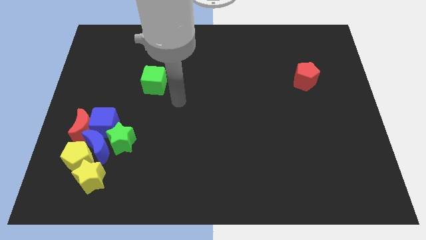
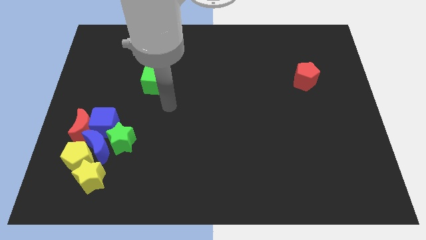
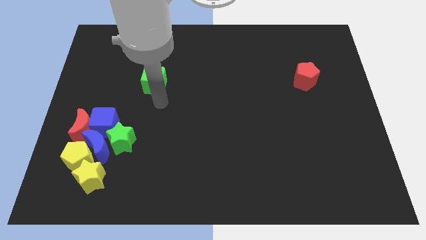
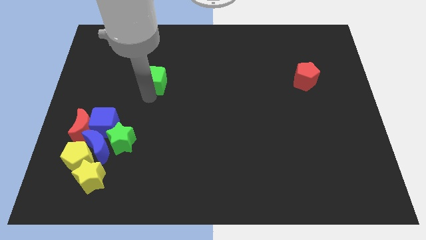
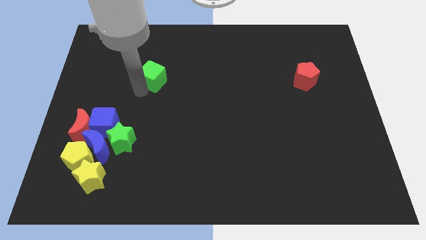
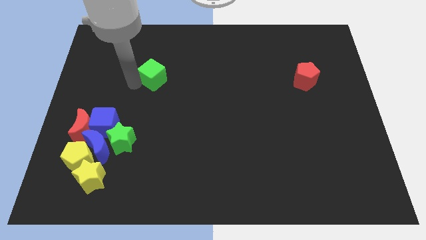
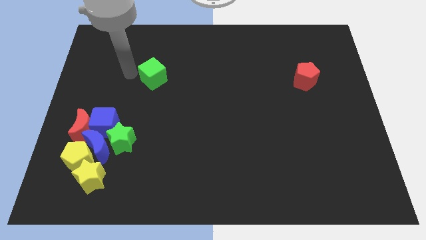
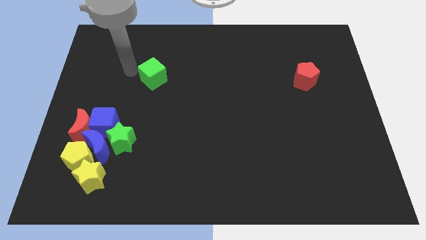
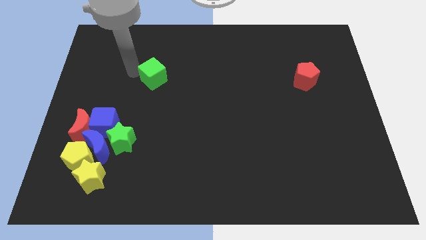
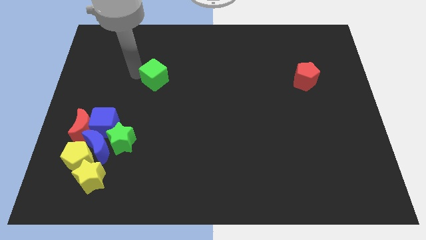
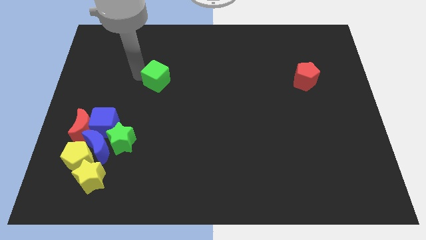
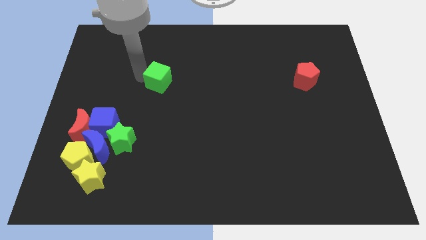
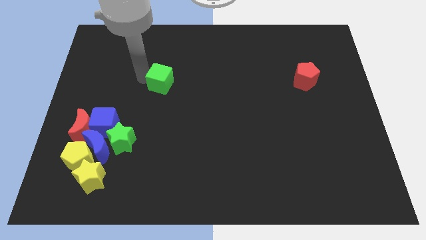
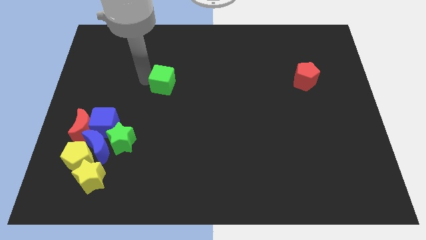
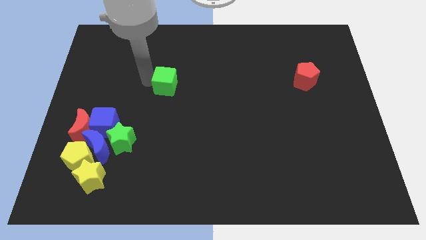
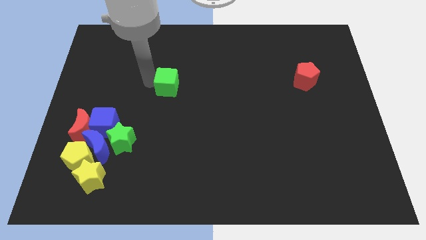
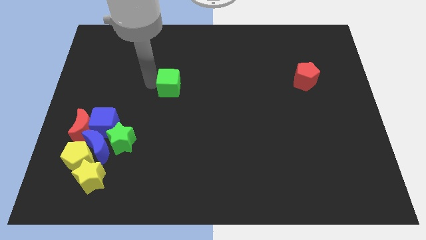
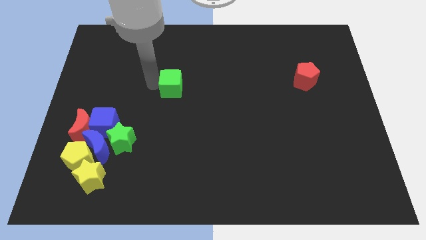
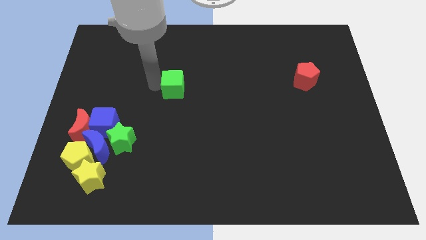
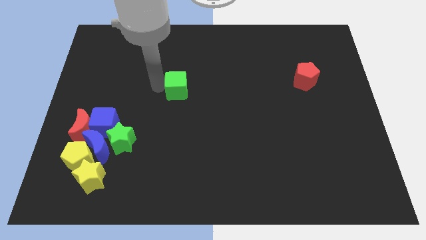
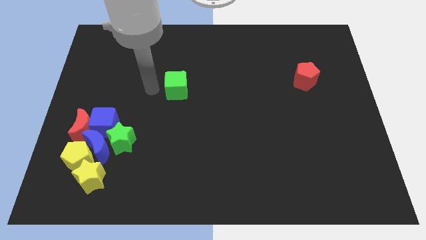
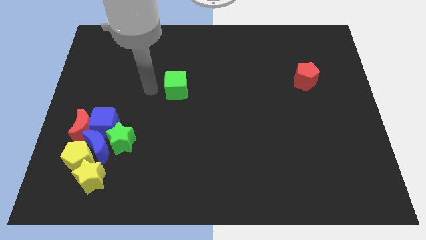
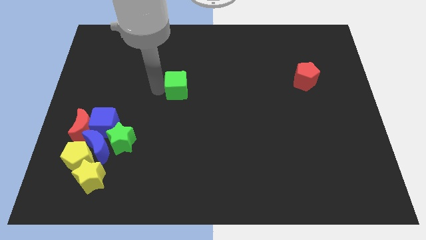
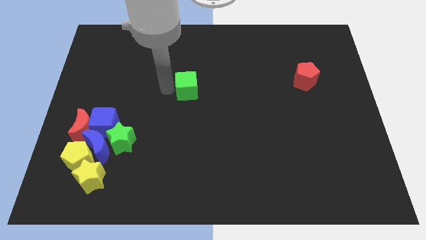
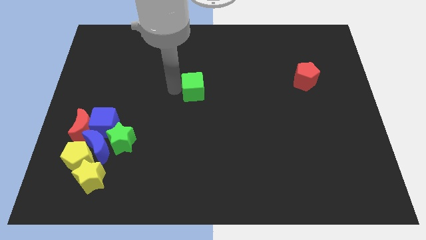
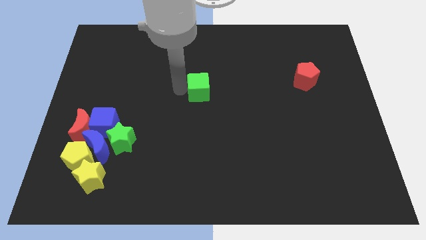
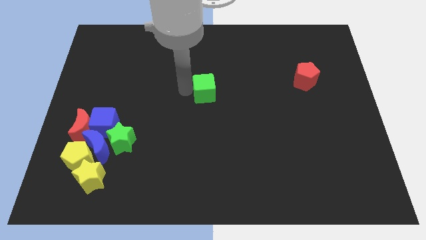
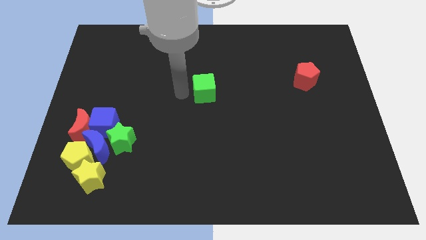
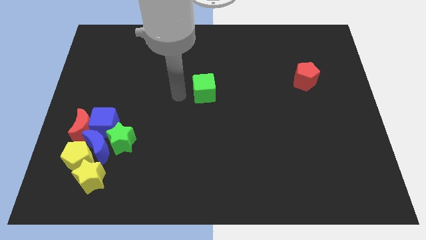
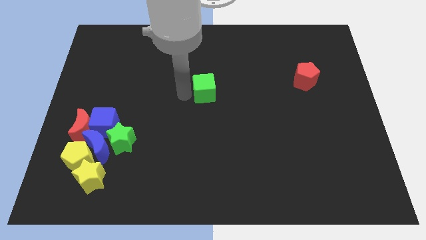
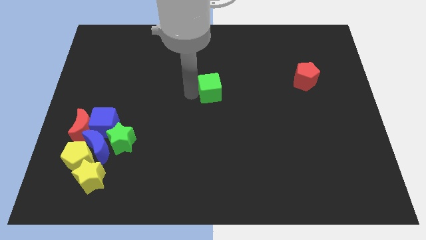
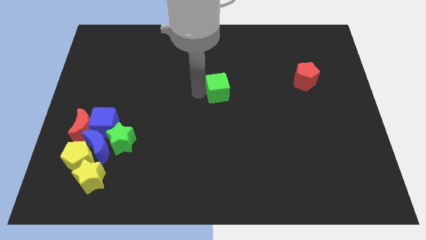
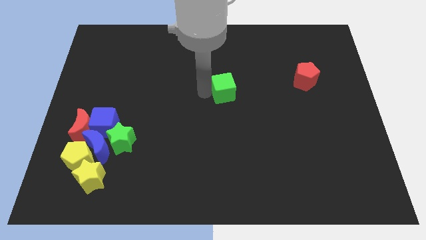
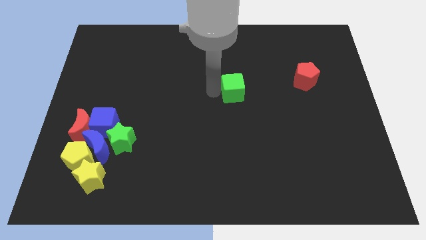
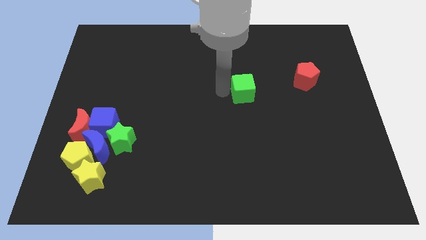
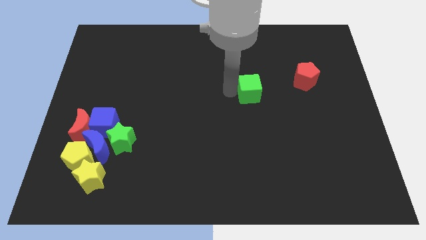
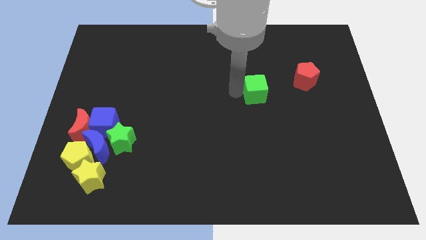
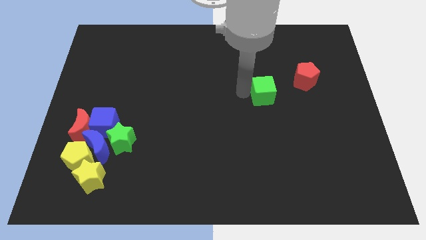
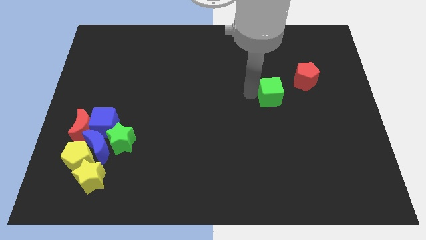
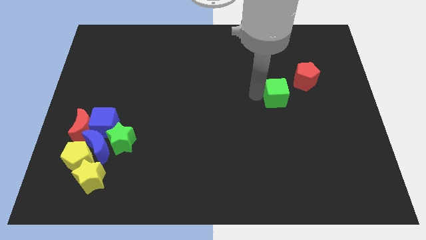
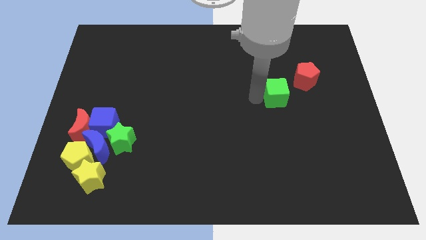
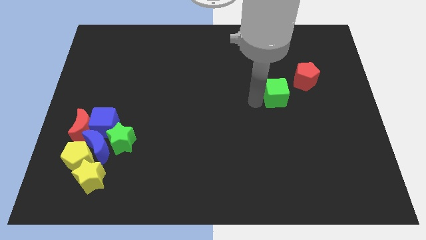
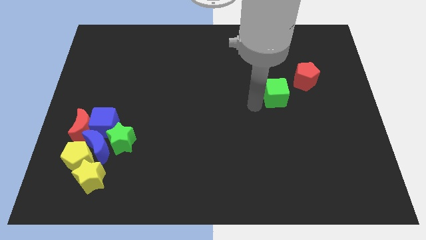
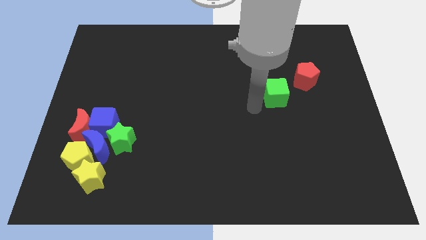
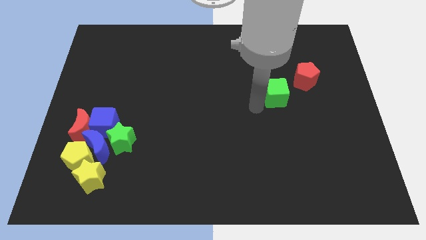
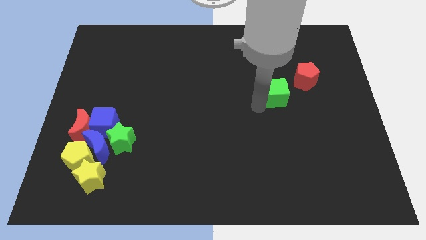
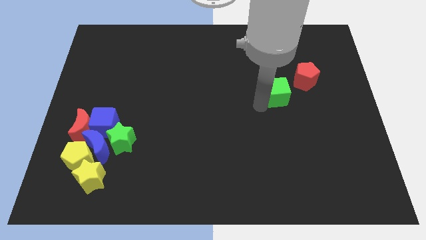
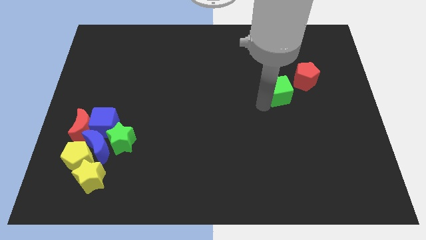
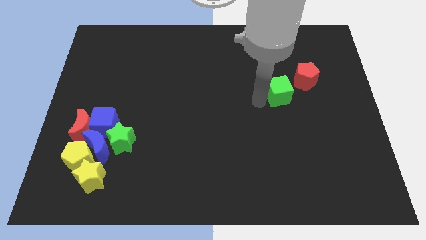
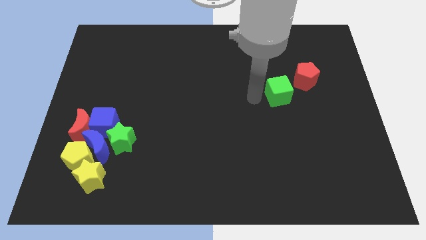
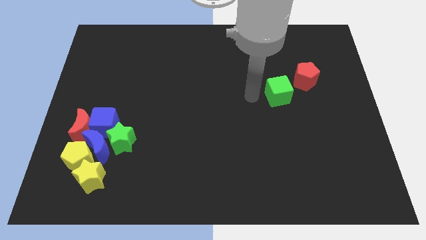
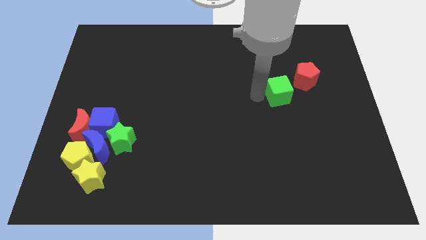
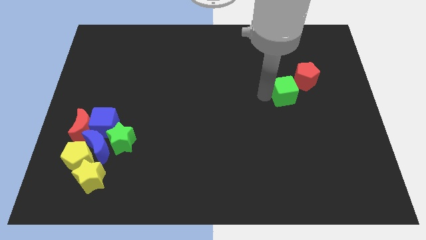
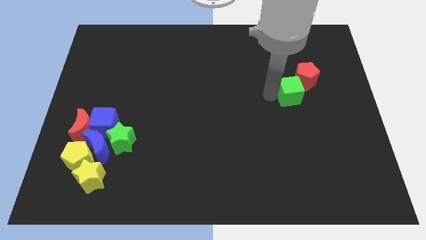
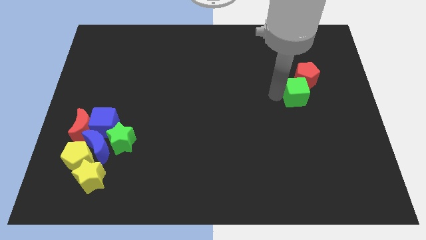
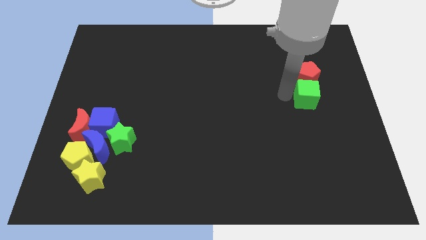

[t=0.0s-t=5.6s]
push the green cube to the bottom right of the red pentagon
